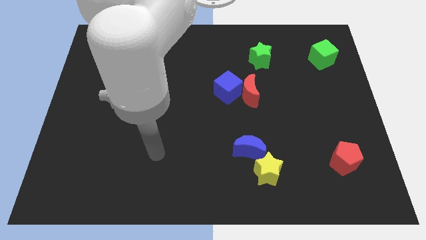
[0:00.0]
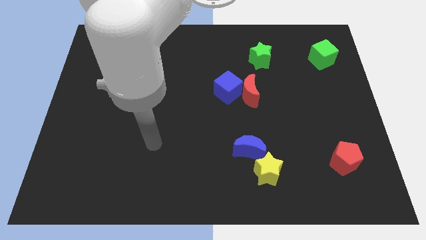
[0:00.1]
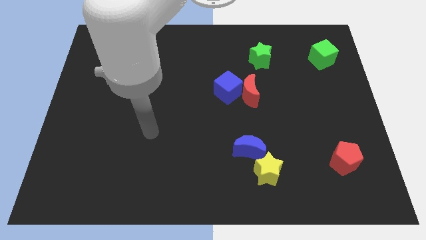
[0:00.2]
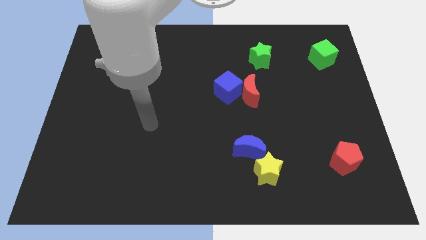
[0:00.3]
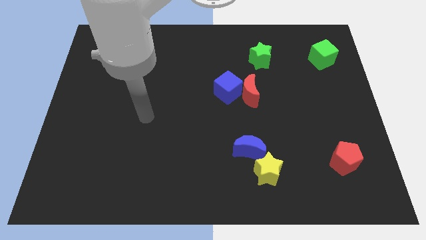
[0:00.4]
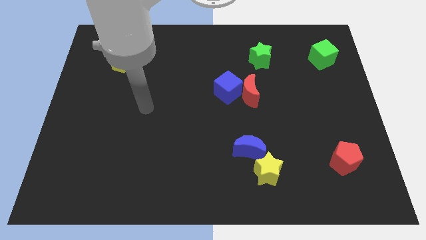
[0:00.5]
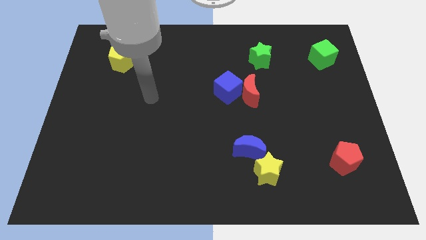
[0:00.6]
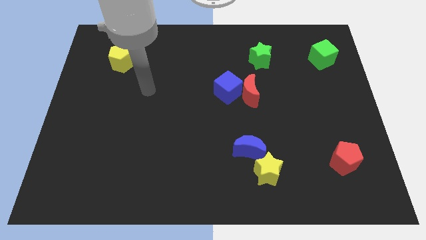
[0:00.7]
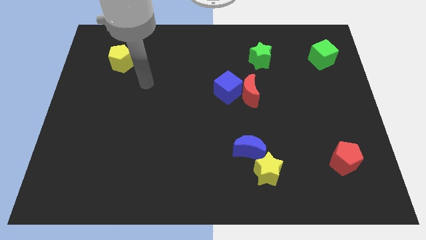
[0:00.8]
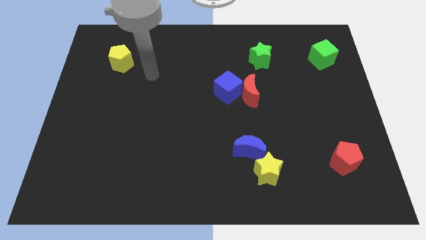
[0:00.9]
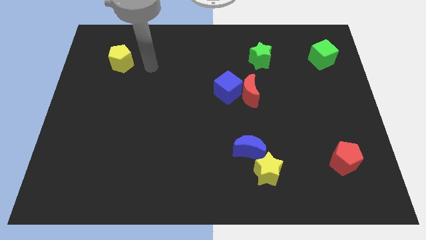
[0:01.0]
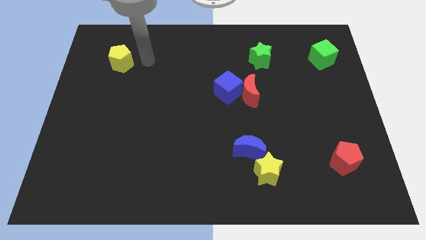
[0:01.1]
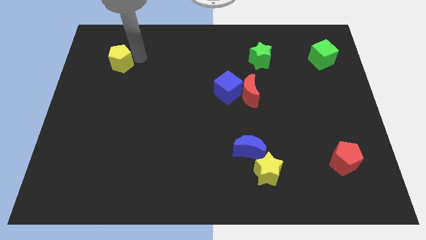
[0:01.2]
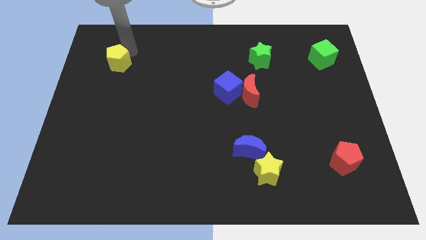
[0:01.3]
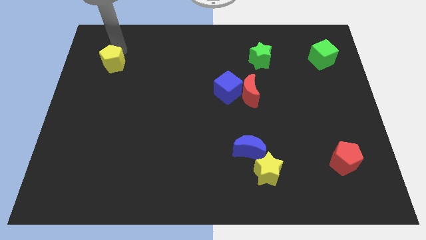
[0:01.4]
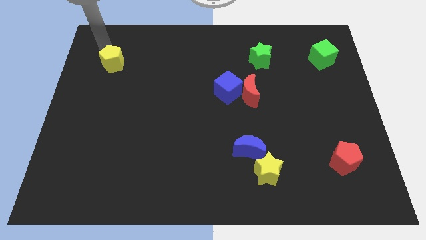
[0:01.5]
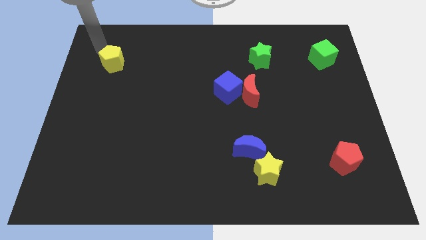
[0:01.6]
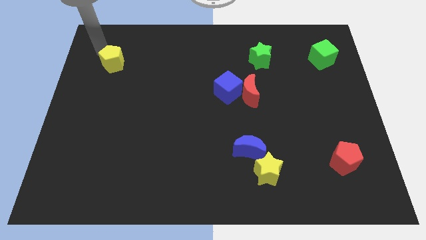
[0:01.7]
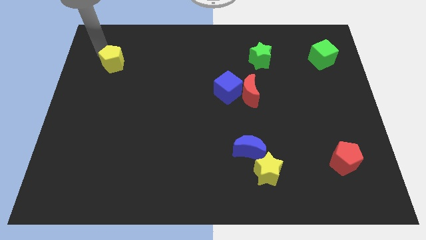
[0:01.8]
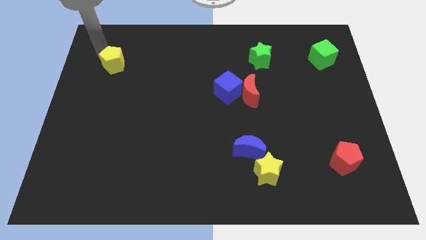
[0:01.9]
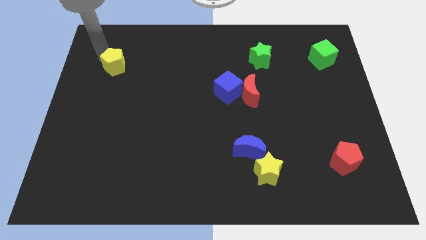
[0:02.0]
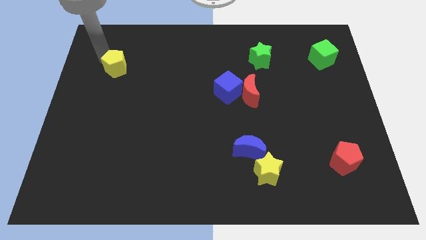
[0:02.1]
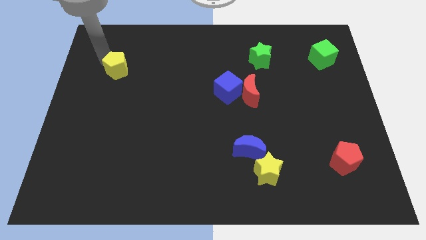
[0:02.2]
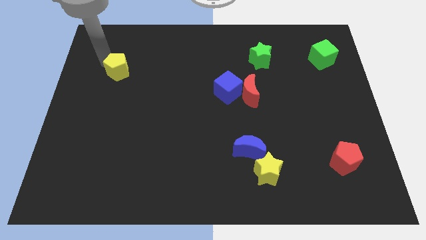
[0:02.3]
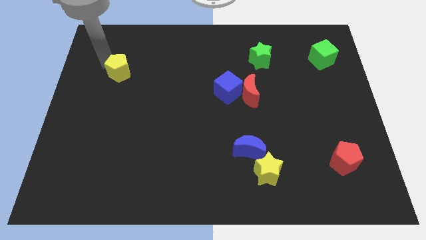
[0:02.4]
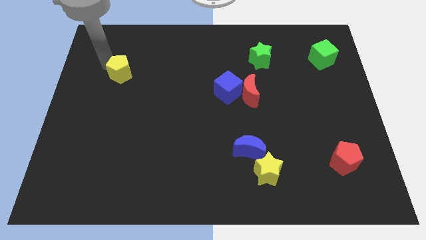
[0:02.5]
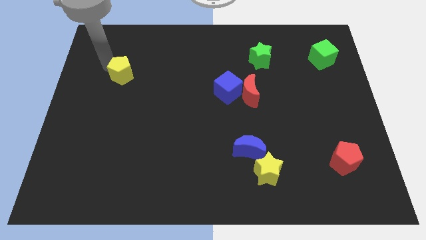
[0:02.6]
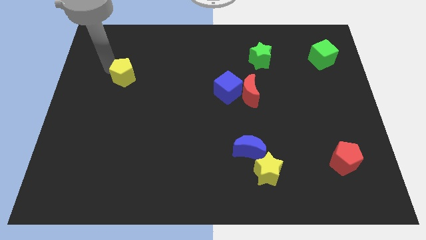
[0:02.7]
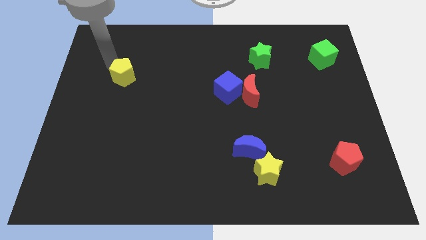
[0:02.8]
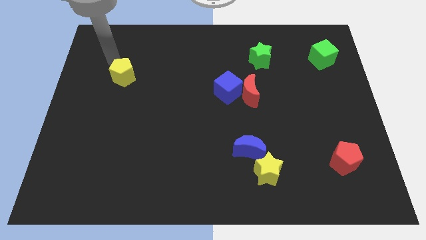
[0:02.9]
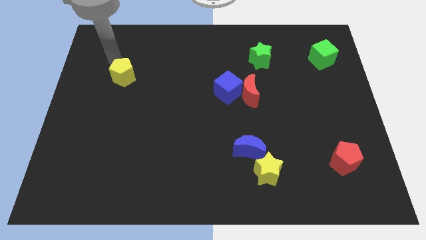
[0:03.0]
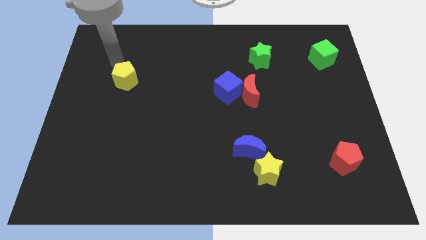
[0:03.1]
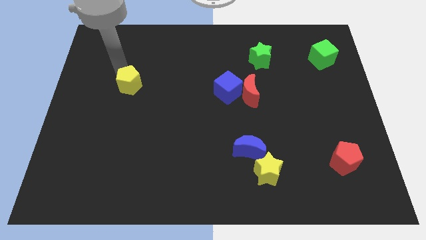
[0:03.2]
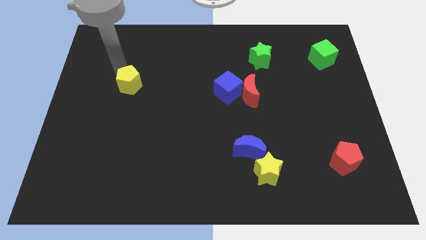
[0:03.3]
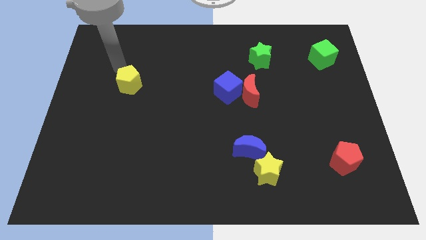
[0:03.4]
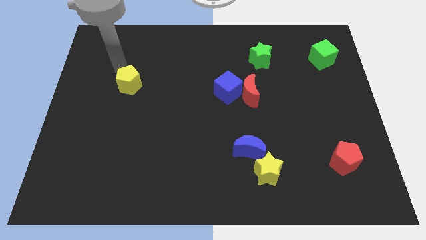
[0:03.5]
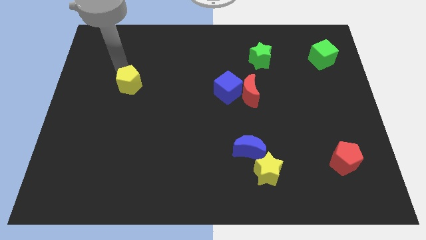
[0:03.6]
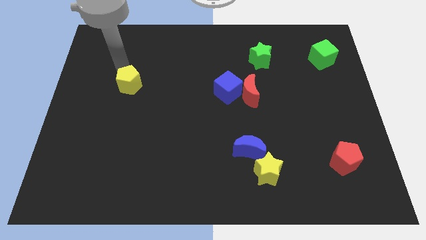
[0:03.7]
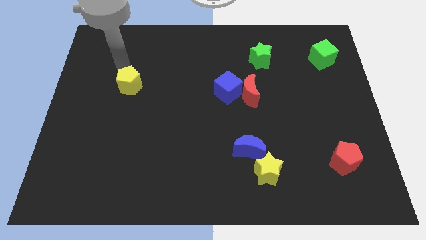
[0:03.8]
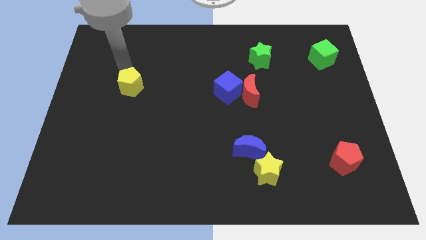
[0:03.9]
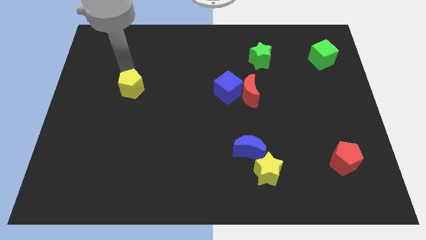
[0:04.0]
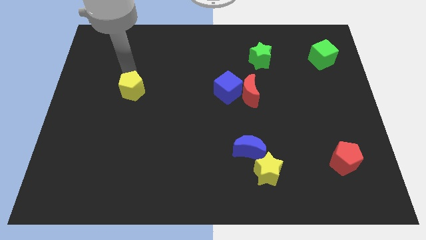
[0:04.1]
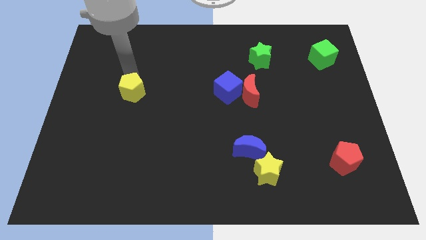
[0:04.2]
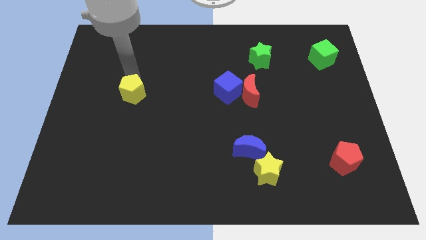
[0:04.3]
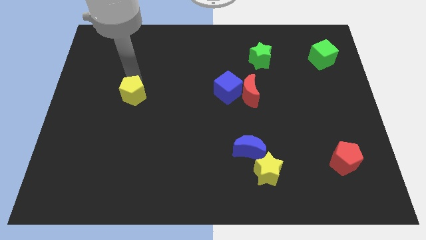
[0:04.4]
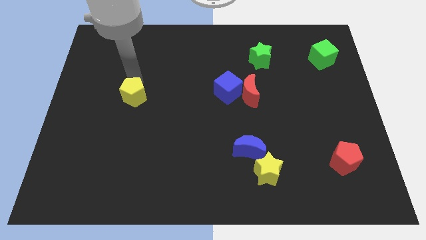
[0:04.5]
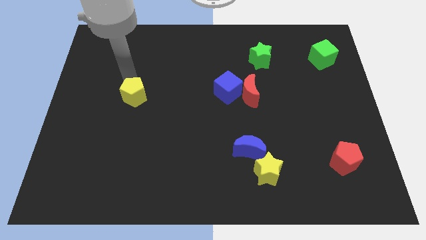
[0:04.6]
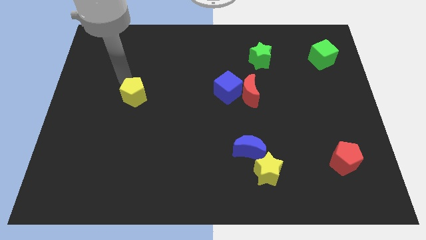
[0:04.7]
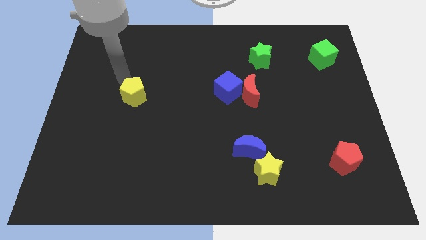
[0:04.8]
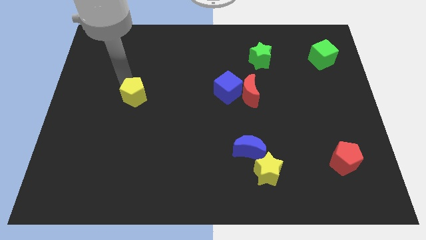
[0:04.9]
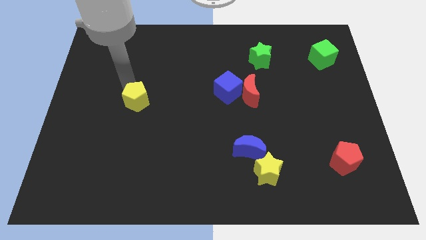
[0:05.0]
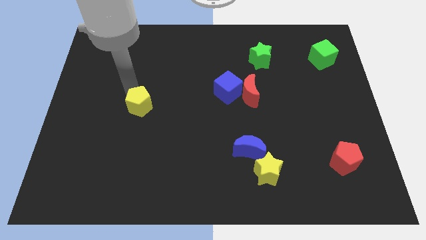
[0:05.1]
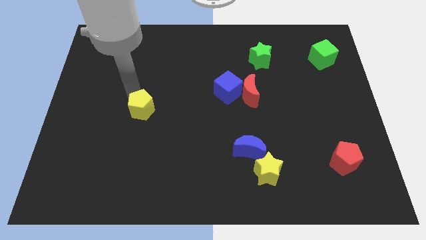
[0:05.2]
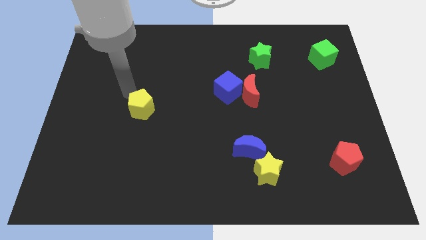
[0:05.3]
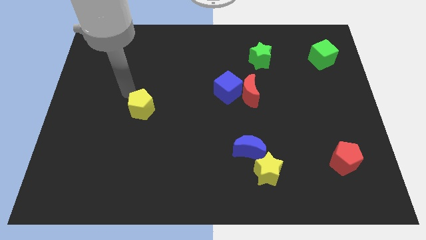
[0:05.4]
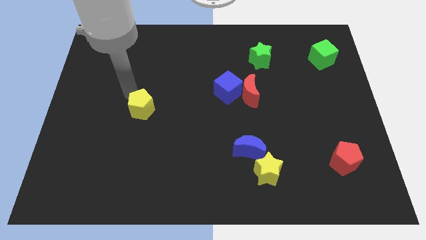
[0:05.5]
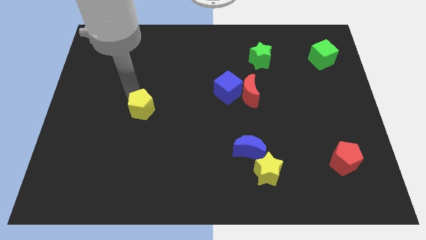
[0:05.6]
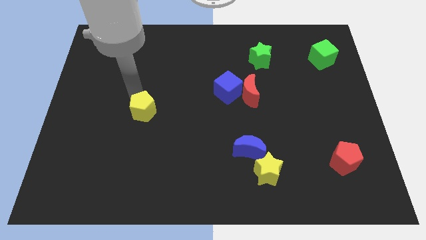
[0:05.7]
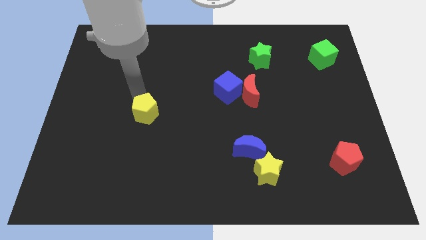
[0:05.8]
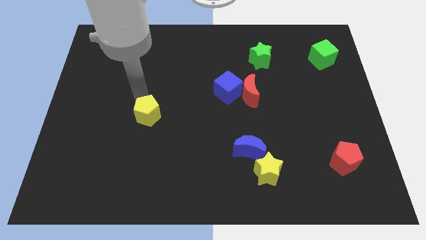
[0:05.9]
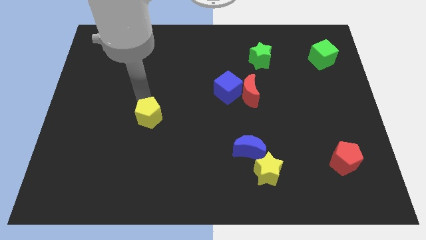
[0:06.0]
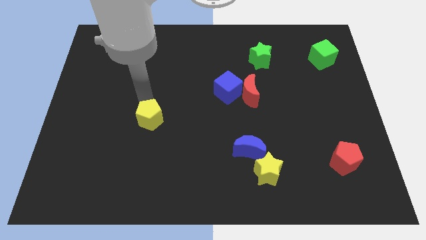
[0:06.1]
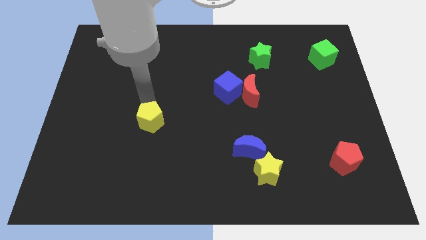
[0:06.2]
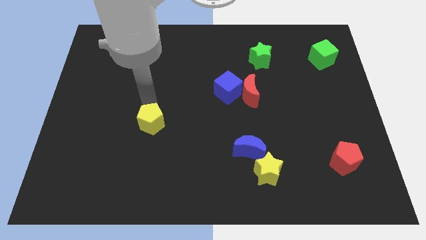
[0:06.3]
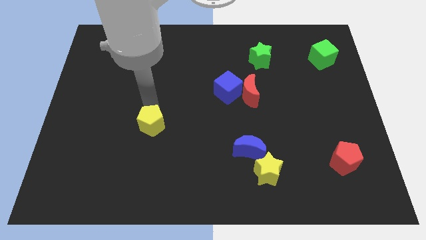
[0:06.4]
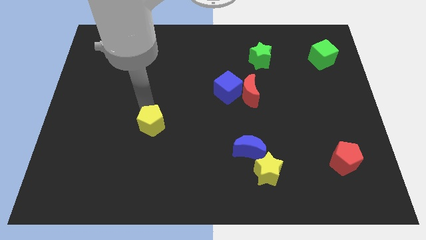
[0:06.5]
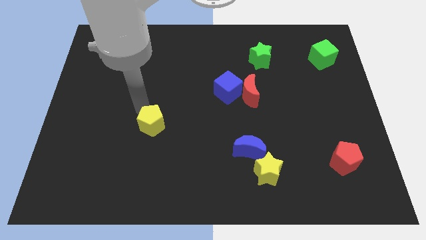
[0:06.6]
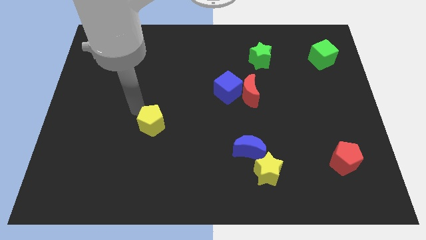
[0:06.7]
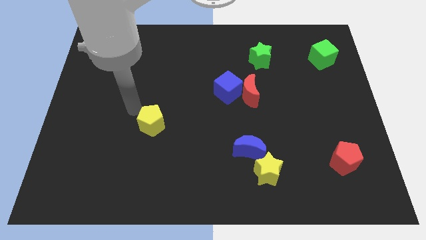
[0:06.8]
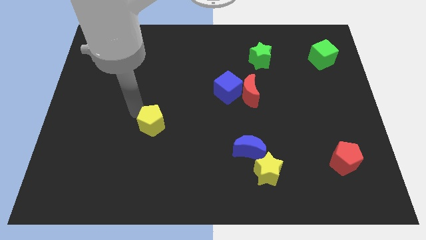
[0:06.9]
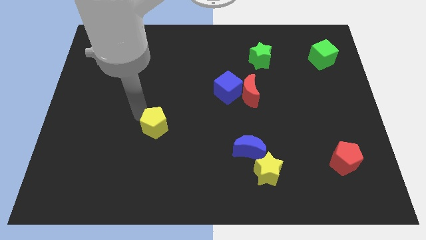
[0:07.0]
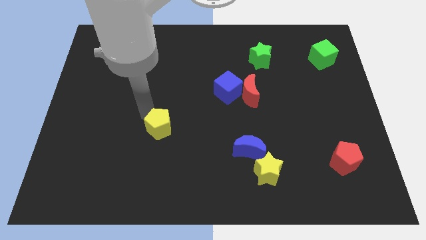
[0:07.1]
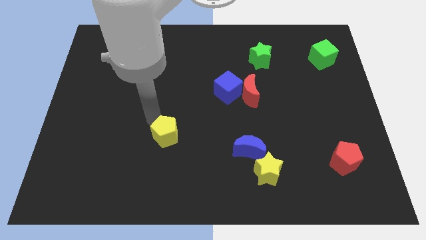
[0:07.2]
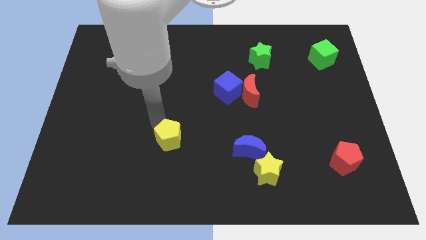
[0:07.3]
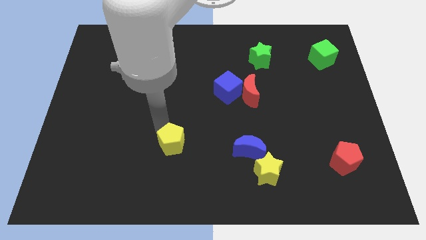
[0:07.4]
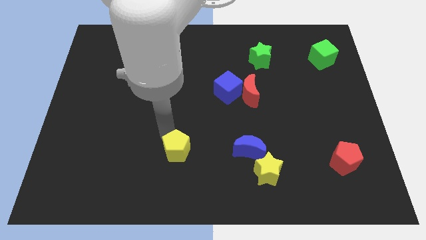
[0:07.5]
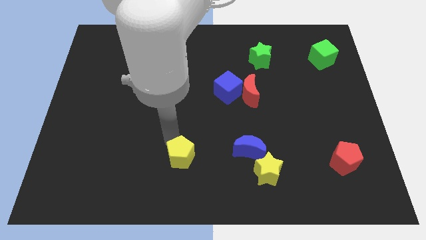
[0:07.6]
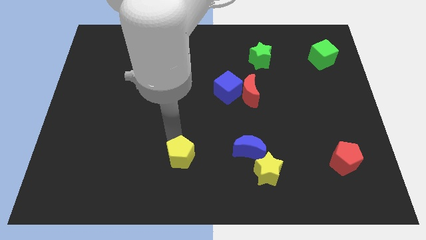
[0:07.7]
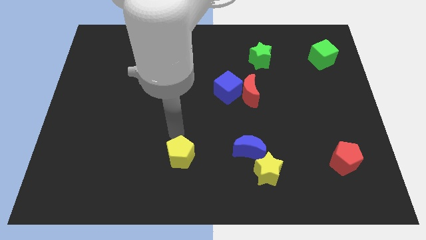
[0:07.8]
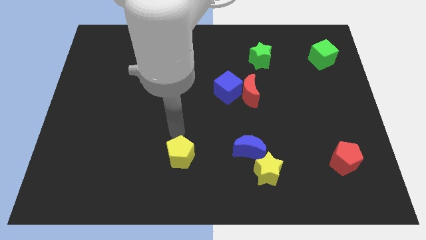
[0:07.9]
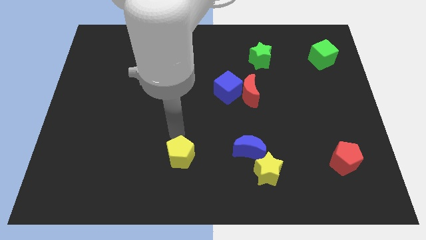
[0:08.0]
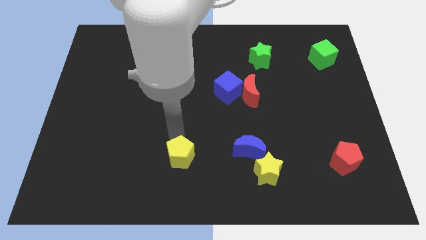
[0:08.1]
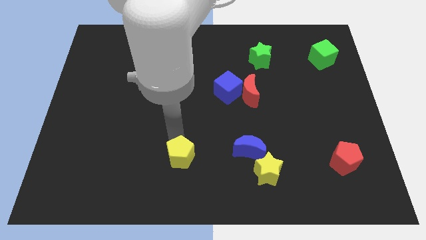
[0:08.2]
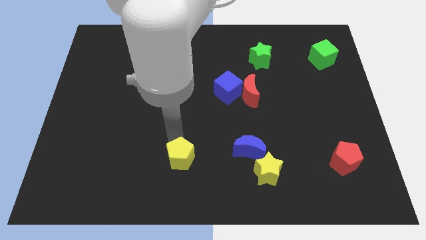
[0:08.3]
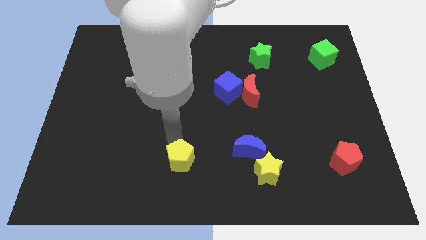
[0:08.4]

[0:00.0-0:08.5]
put the yellow pentagon to the bottom side
